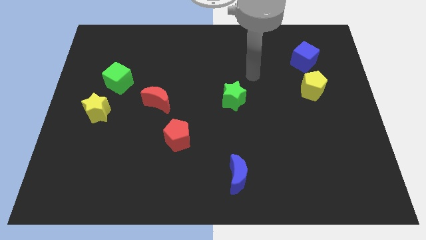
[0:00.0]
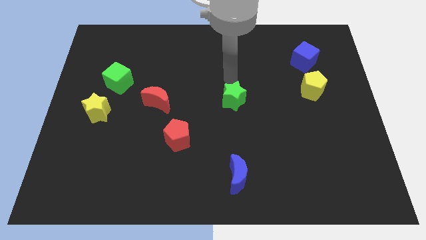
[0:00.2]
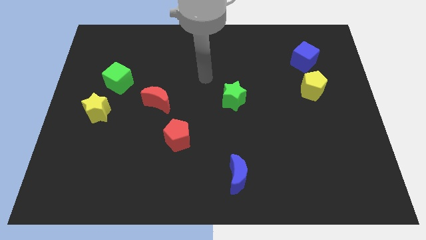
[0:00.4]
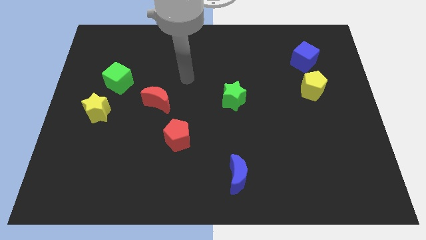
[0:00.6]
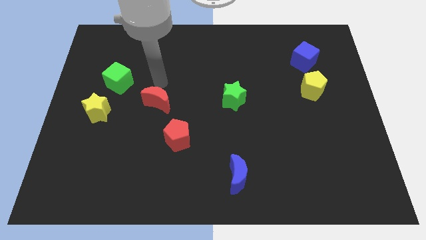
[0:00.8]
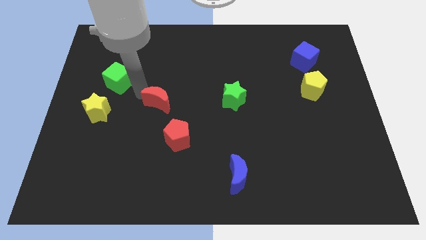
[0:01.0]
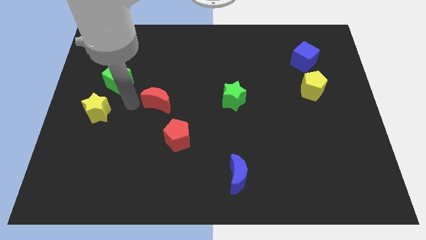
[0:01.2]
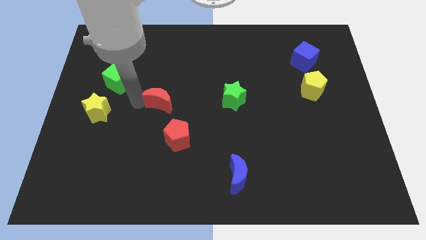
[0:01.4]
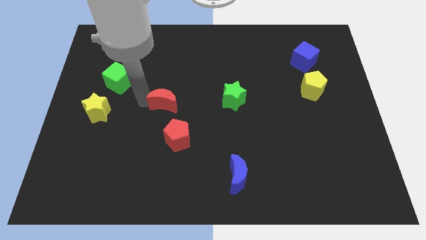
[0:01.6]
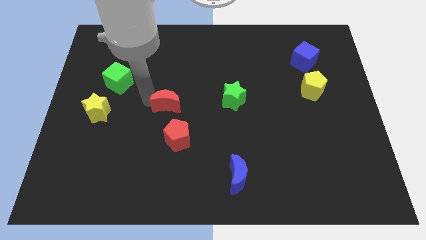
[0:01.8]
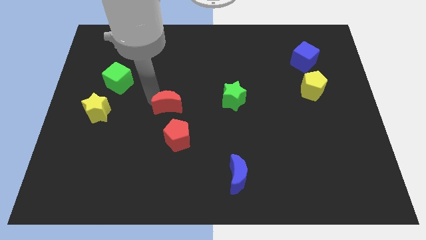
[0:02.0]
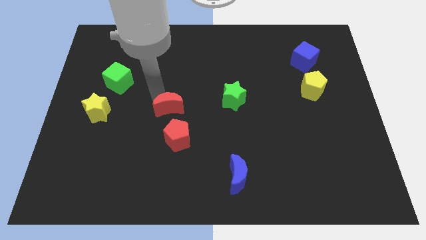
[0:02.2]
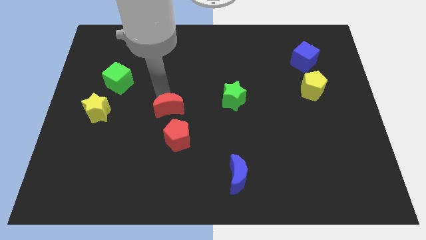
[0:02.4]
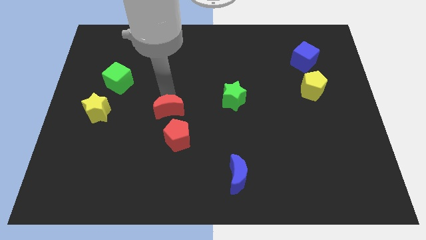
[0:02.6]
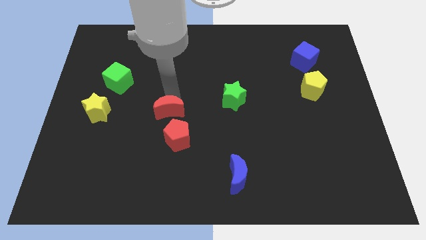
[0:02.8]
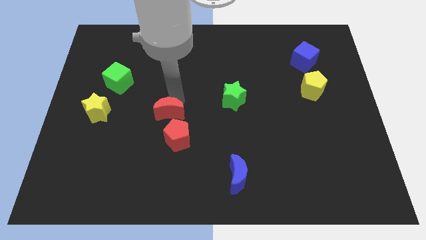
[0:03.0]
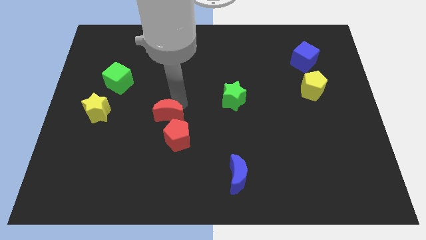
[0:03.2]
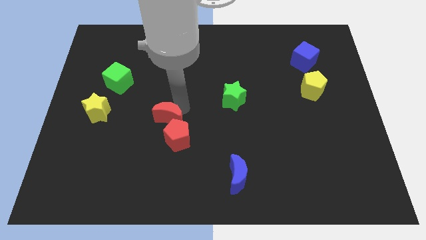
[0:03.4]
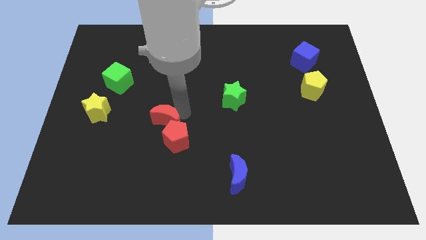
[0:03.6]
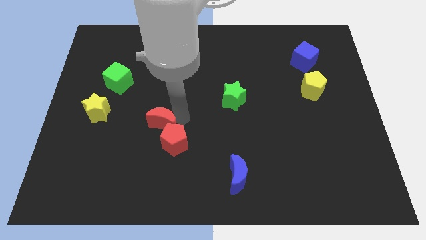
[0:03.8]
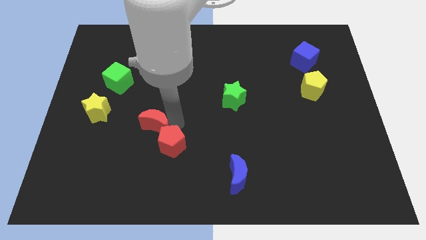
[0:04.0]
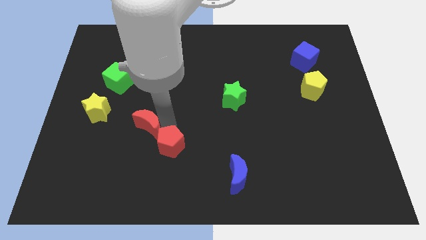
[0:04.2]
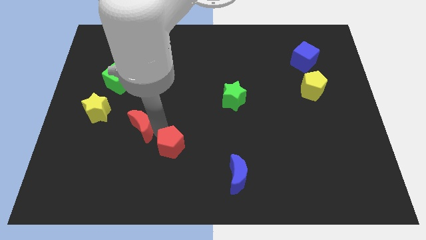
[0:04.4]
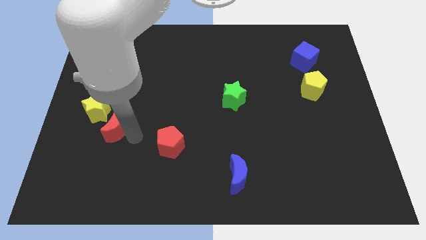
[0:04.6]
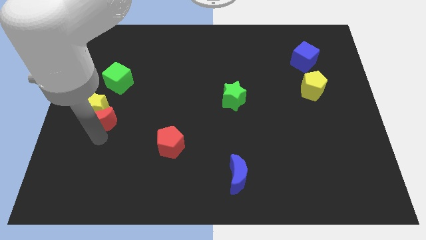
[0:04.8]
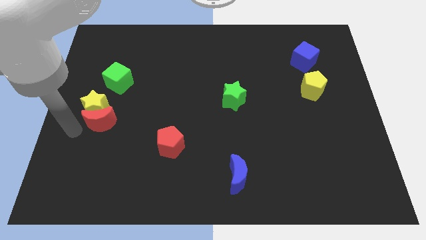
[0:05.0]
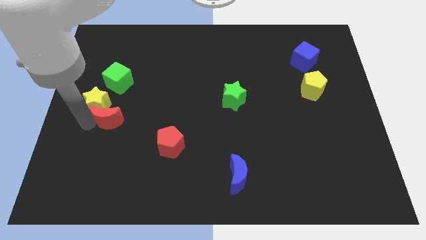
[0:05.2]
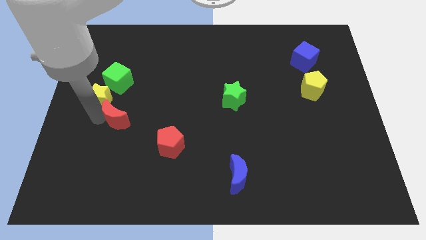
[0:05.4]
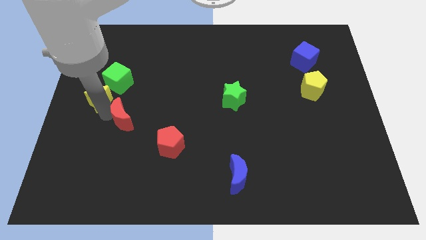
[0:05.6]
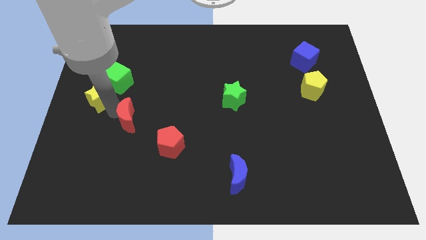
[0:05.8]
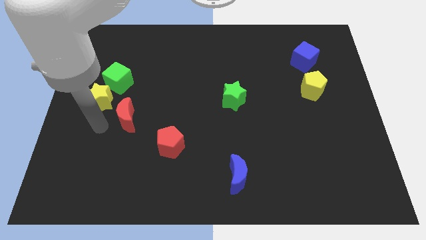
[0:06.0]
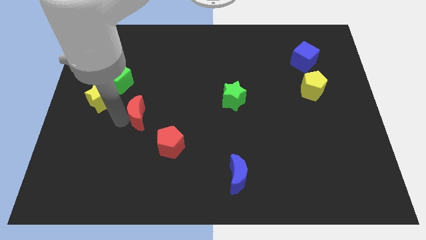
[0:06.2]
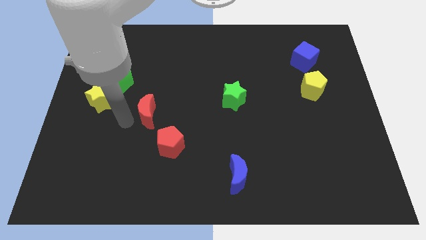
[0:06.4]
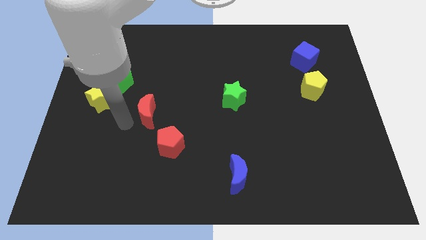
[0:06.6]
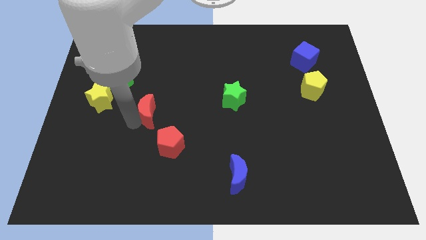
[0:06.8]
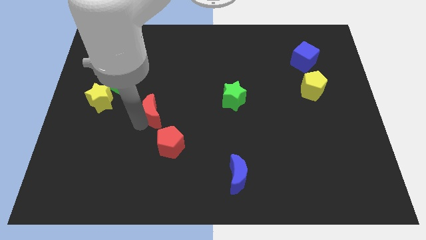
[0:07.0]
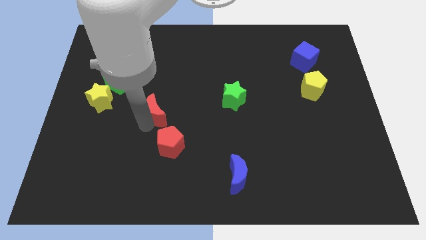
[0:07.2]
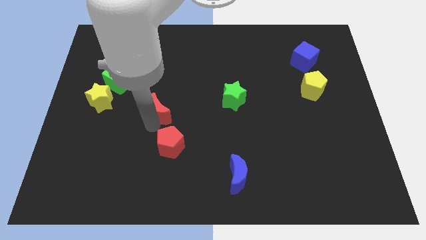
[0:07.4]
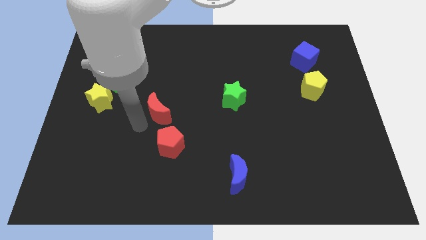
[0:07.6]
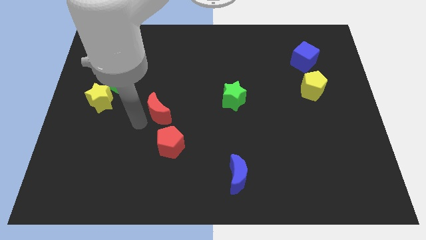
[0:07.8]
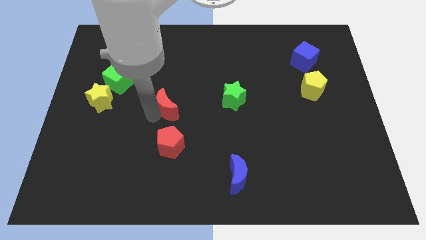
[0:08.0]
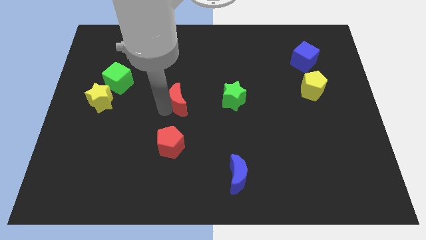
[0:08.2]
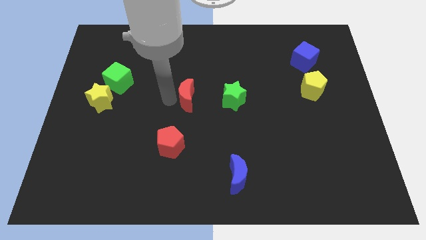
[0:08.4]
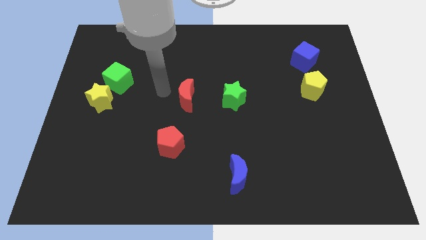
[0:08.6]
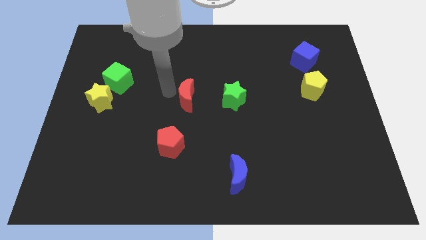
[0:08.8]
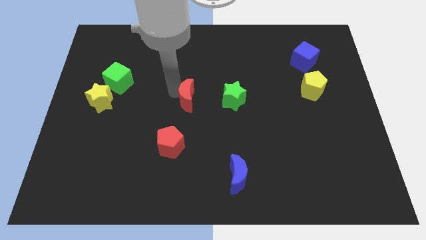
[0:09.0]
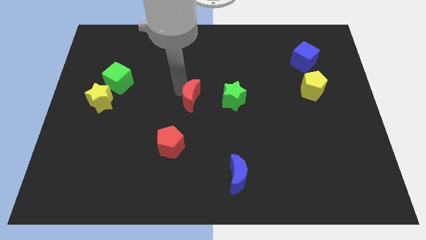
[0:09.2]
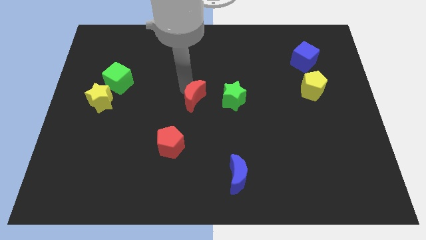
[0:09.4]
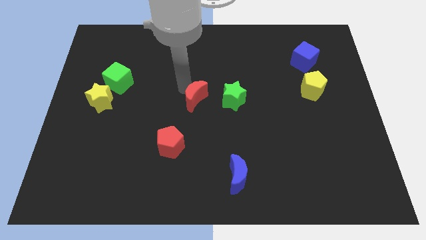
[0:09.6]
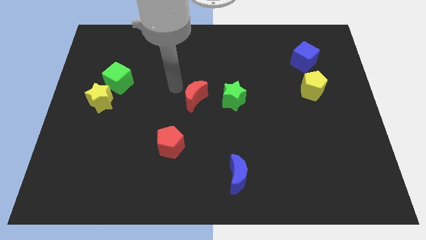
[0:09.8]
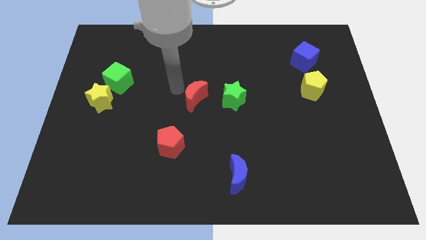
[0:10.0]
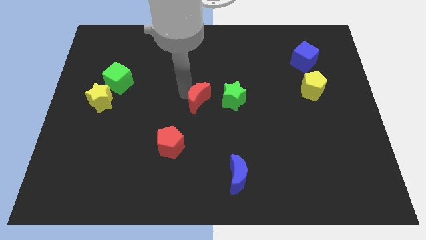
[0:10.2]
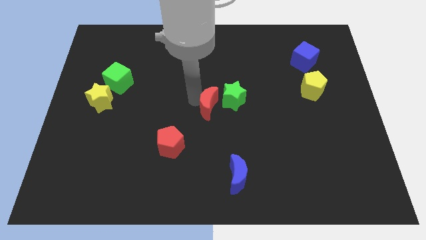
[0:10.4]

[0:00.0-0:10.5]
move the red moon next to the green star

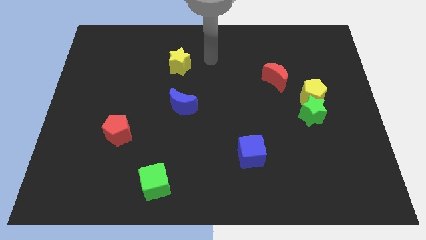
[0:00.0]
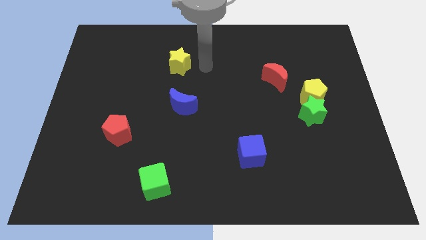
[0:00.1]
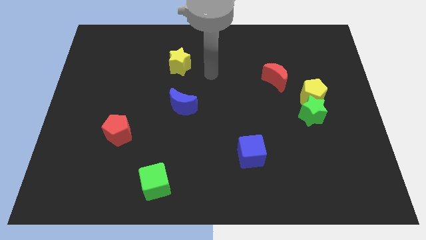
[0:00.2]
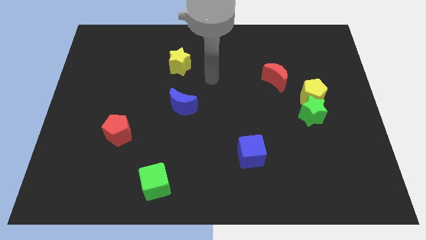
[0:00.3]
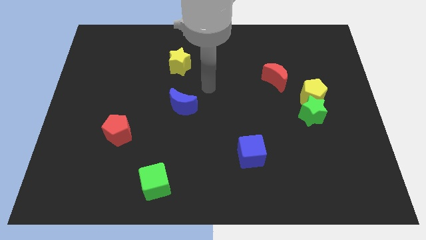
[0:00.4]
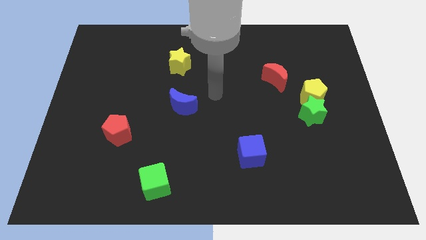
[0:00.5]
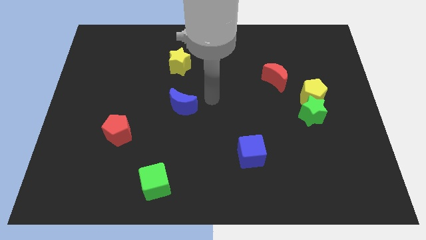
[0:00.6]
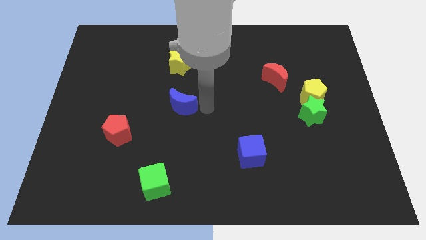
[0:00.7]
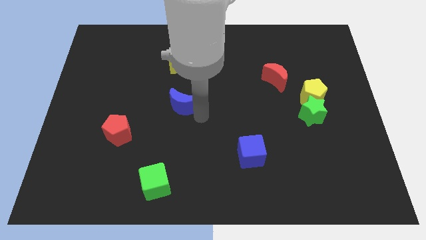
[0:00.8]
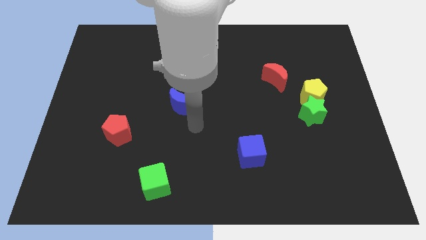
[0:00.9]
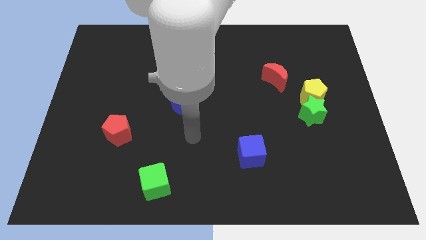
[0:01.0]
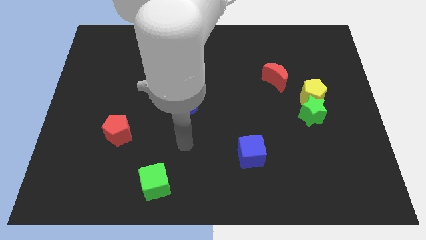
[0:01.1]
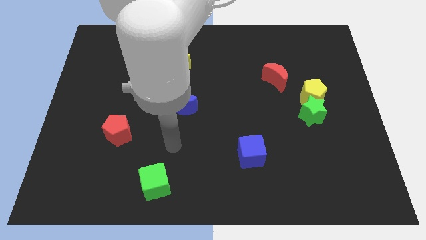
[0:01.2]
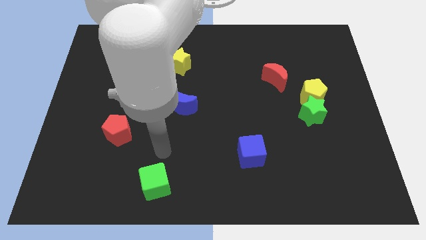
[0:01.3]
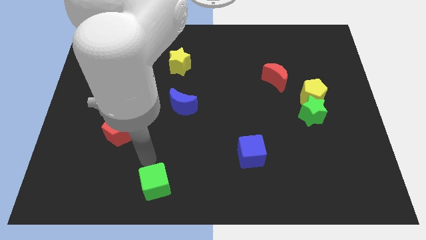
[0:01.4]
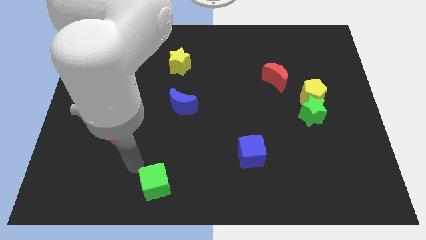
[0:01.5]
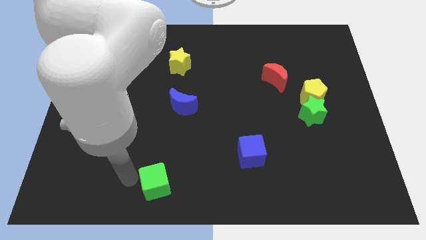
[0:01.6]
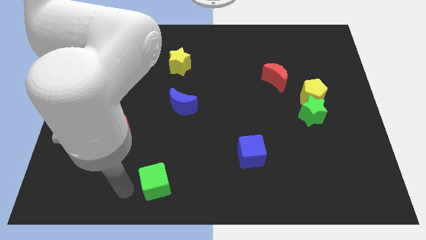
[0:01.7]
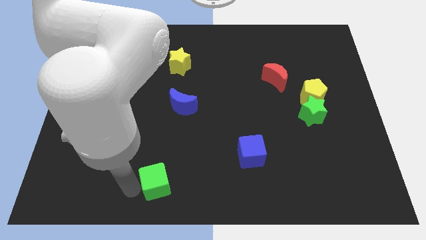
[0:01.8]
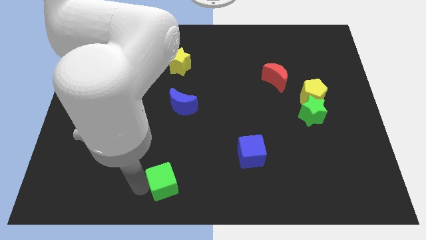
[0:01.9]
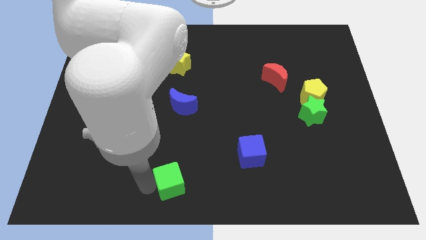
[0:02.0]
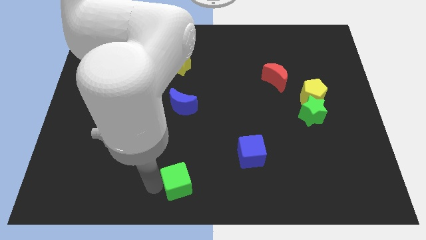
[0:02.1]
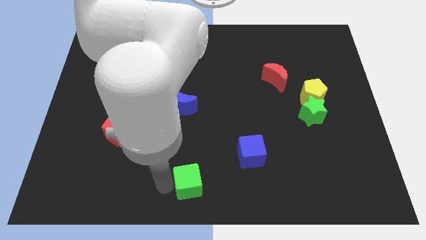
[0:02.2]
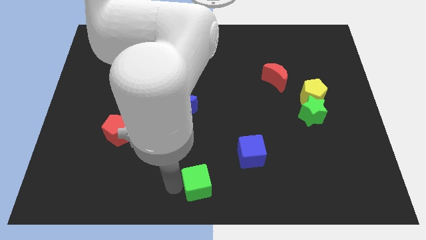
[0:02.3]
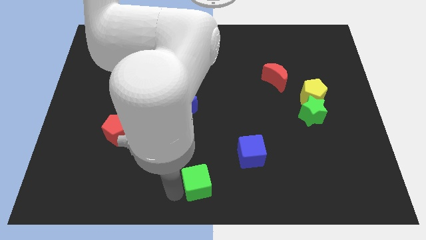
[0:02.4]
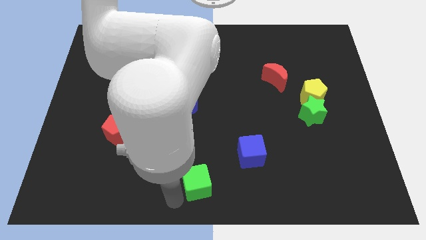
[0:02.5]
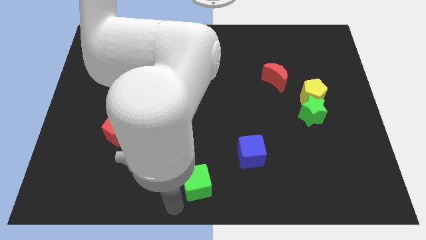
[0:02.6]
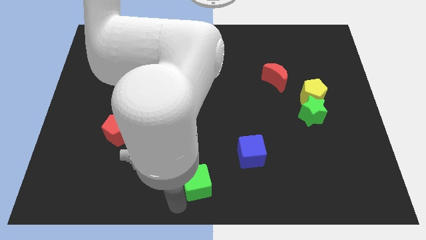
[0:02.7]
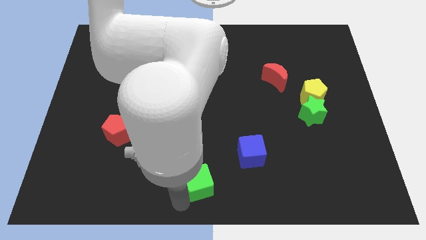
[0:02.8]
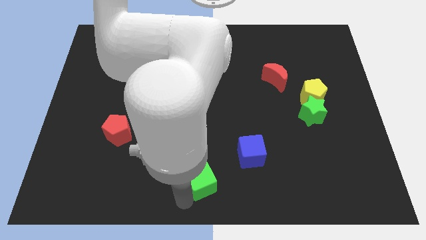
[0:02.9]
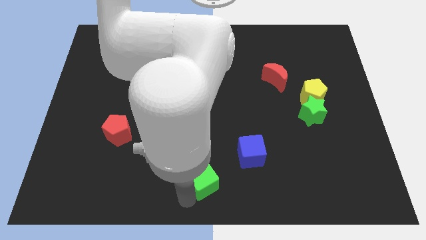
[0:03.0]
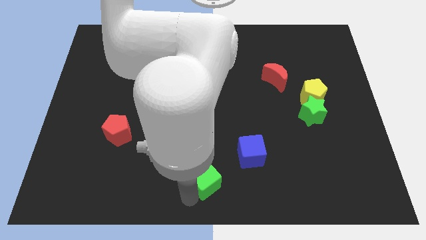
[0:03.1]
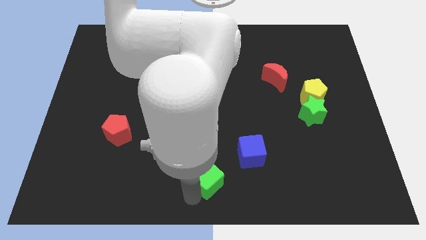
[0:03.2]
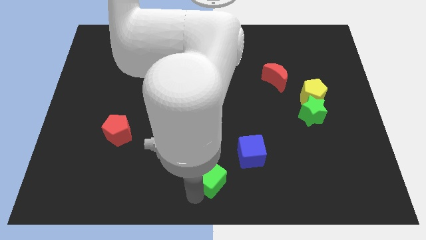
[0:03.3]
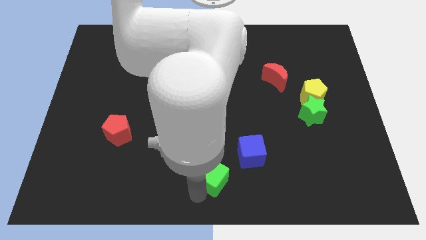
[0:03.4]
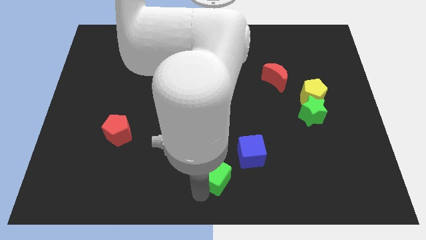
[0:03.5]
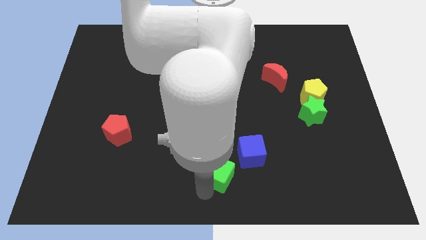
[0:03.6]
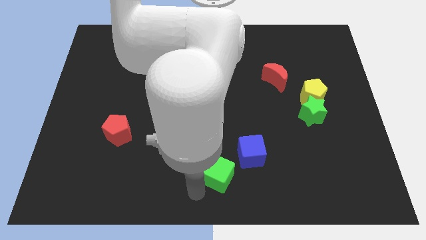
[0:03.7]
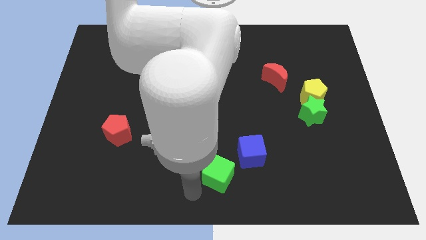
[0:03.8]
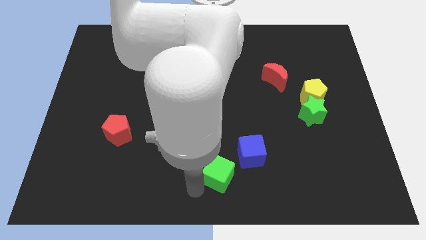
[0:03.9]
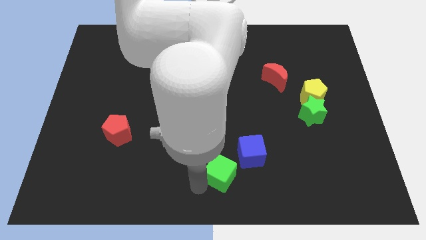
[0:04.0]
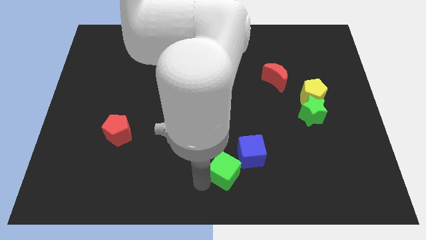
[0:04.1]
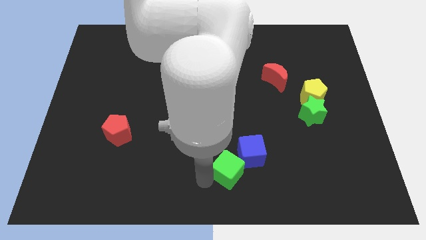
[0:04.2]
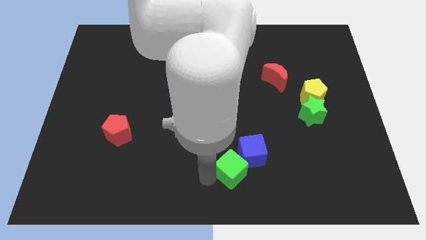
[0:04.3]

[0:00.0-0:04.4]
slide the green cube to the blue cube
